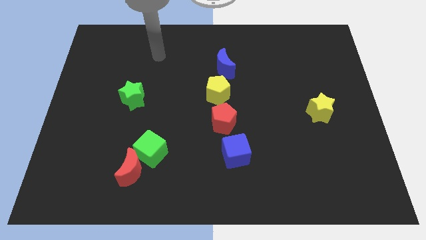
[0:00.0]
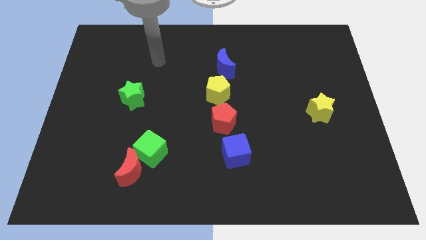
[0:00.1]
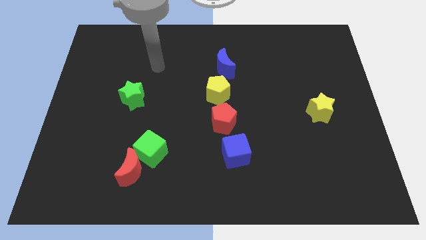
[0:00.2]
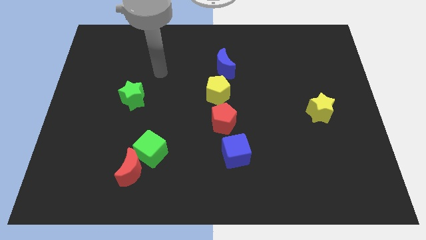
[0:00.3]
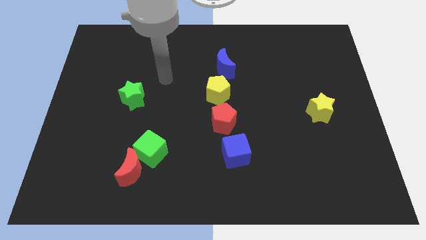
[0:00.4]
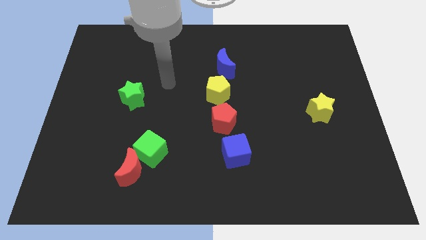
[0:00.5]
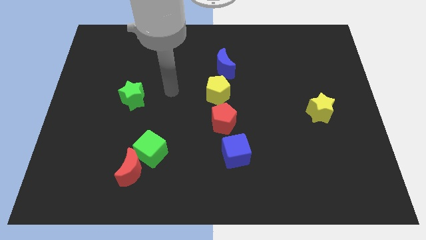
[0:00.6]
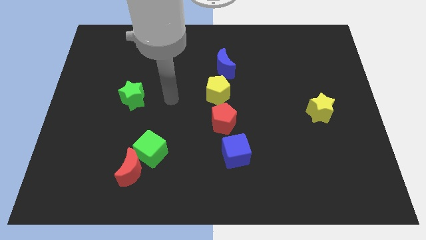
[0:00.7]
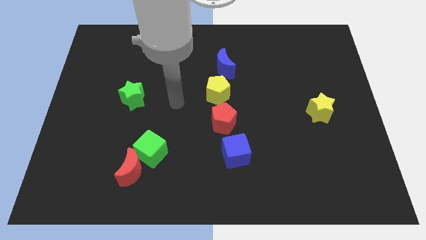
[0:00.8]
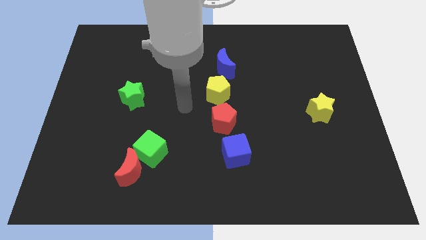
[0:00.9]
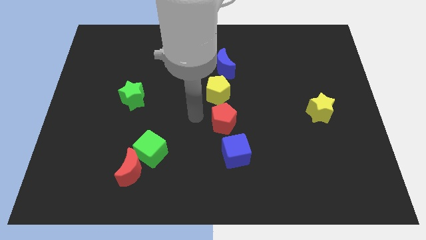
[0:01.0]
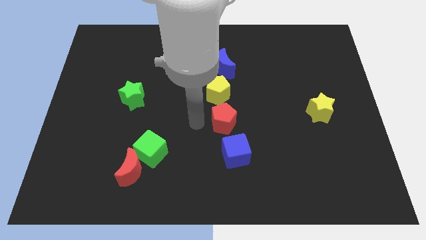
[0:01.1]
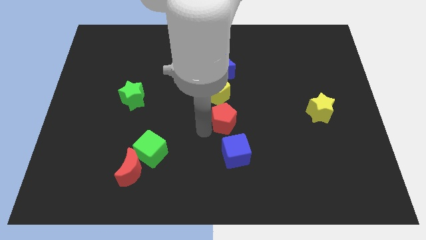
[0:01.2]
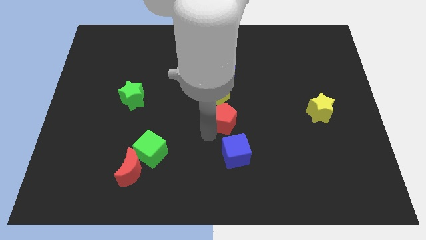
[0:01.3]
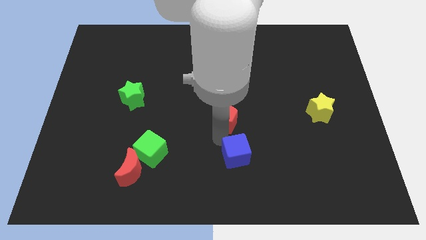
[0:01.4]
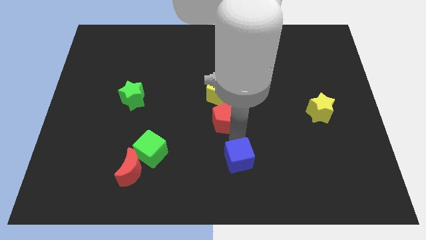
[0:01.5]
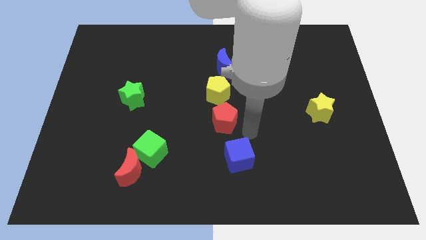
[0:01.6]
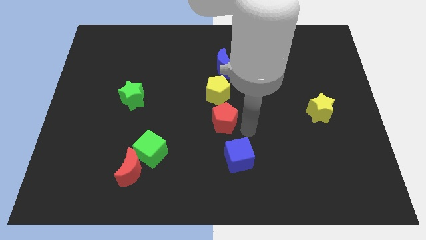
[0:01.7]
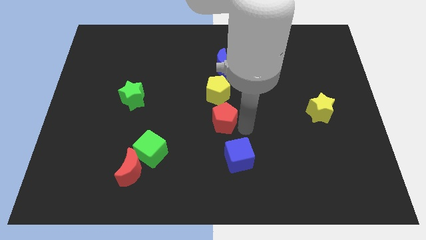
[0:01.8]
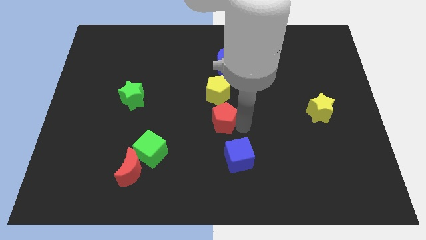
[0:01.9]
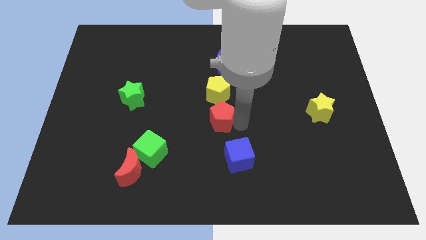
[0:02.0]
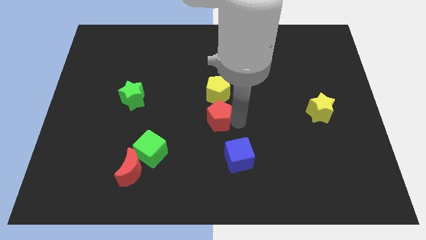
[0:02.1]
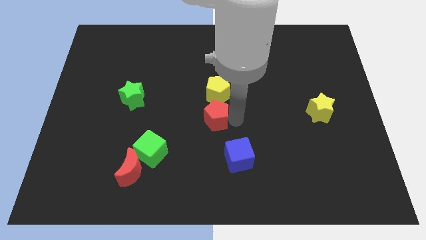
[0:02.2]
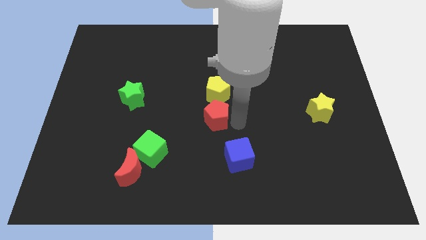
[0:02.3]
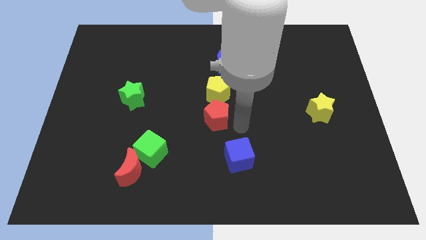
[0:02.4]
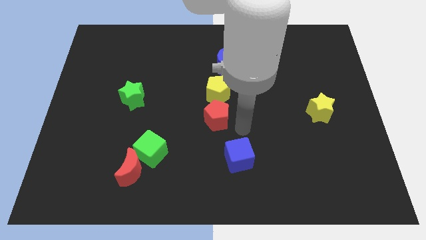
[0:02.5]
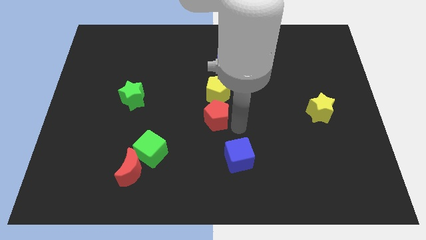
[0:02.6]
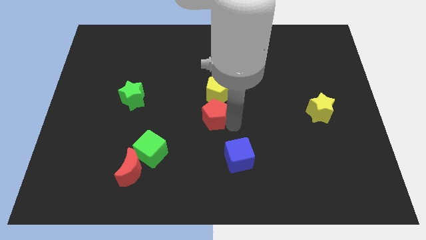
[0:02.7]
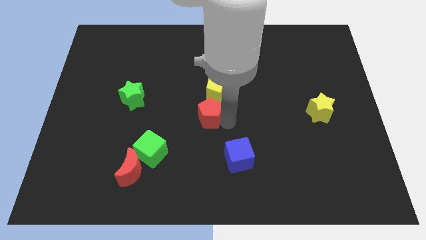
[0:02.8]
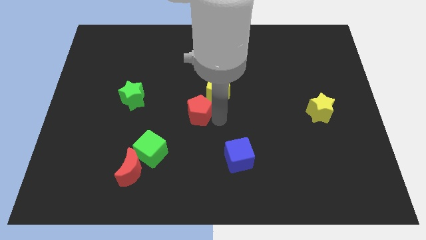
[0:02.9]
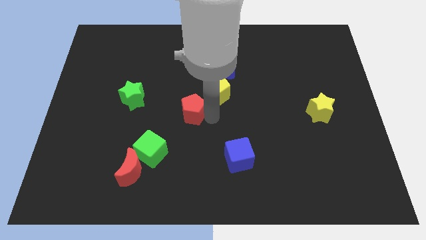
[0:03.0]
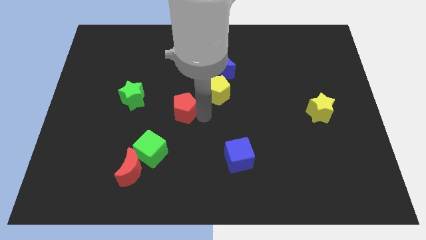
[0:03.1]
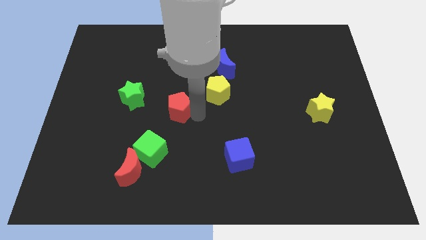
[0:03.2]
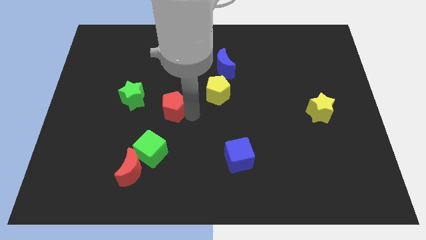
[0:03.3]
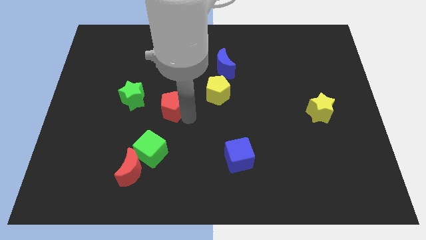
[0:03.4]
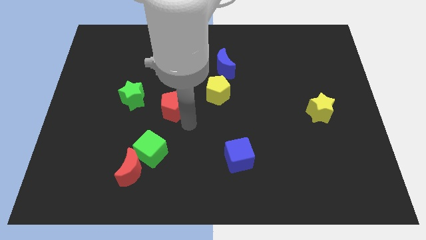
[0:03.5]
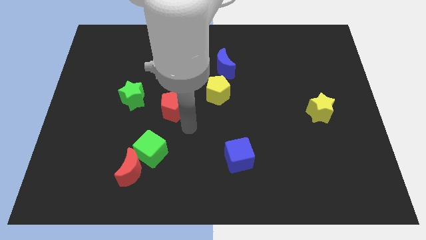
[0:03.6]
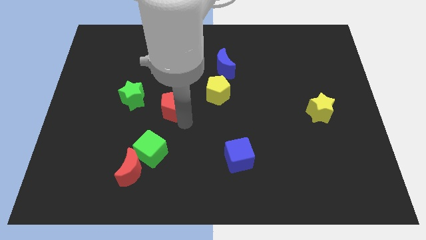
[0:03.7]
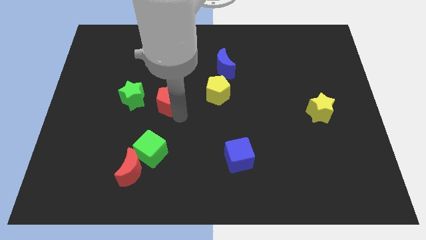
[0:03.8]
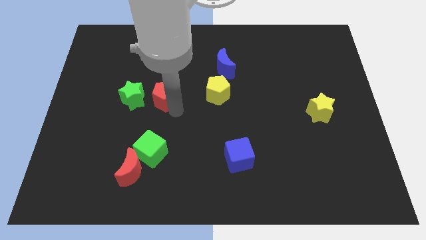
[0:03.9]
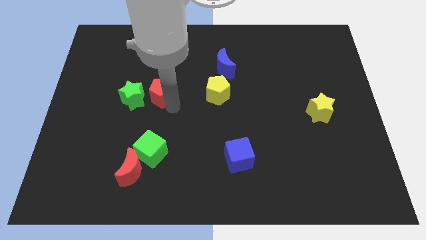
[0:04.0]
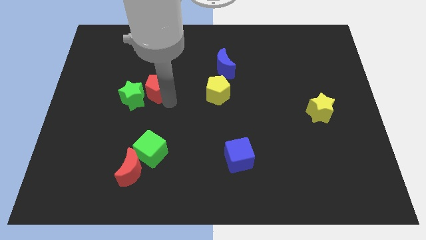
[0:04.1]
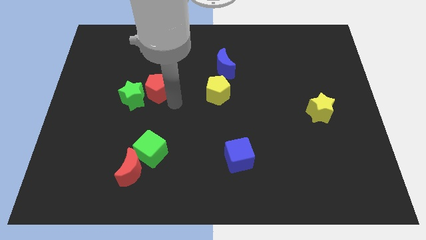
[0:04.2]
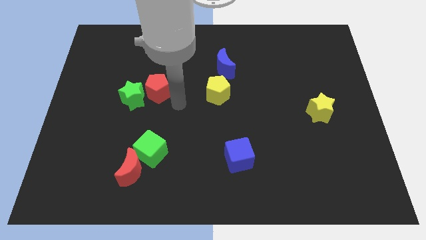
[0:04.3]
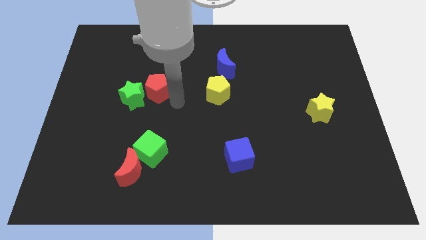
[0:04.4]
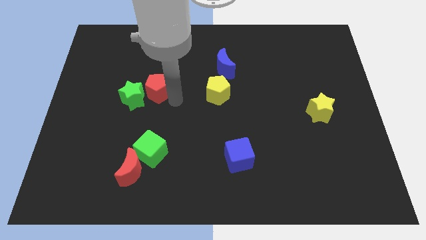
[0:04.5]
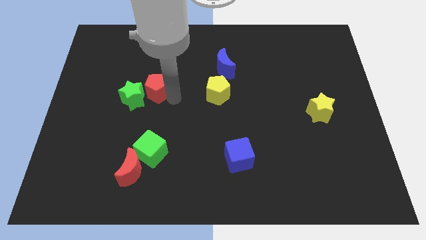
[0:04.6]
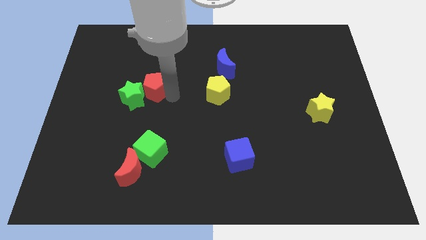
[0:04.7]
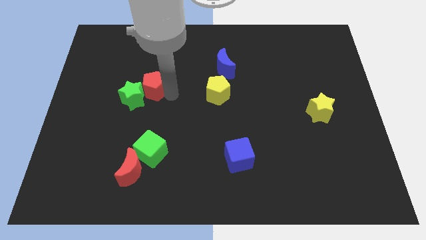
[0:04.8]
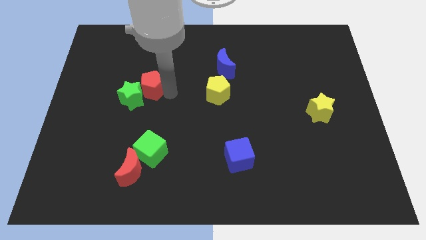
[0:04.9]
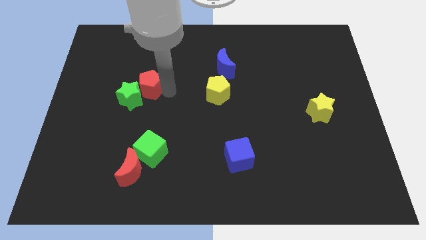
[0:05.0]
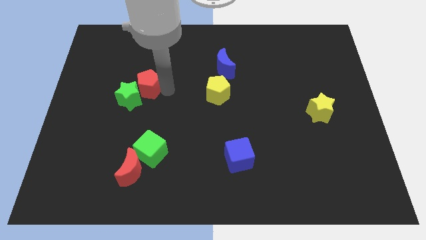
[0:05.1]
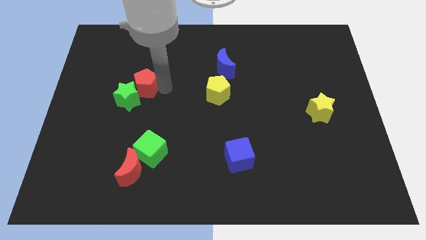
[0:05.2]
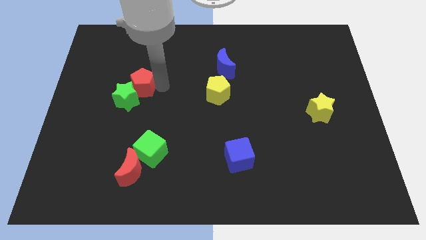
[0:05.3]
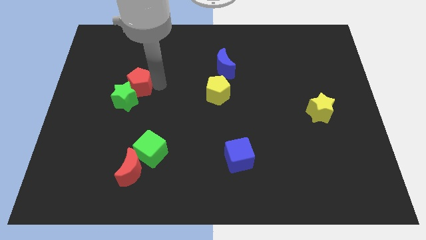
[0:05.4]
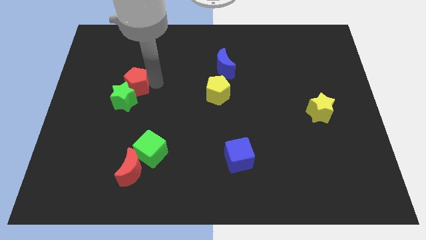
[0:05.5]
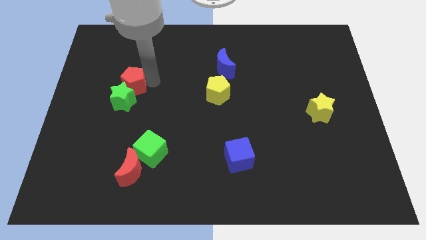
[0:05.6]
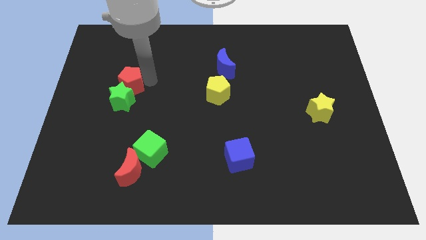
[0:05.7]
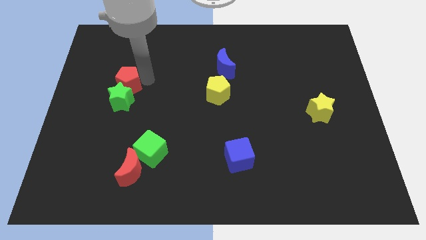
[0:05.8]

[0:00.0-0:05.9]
slide the red pentagon diagonally up and to the left of the green star

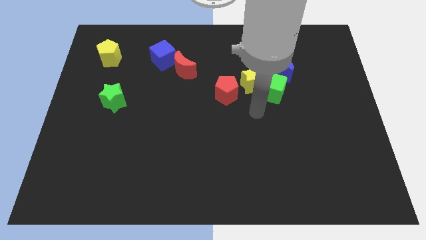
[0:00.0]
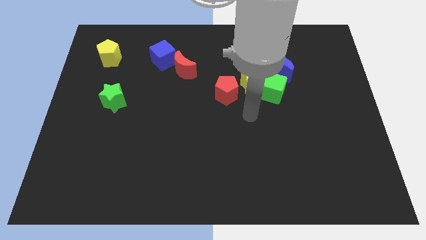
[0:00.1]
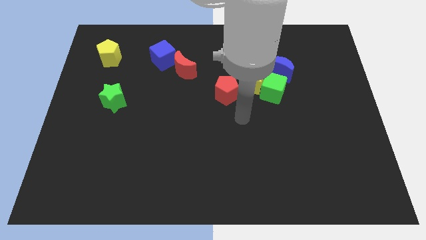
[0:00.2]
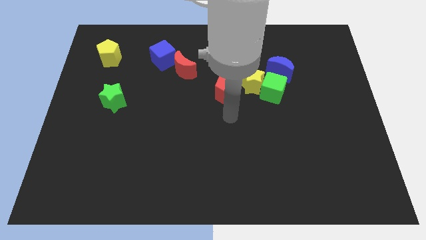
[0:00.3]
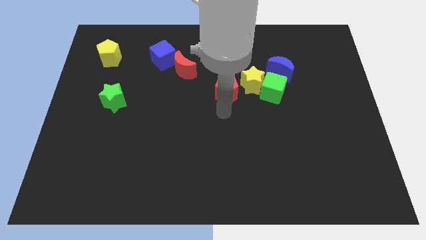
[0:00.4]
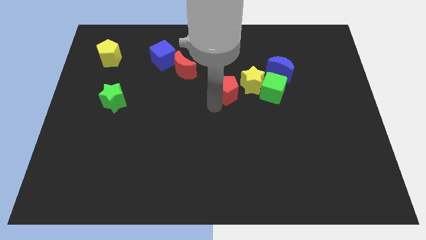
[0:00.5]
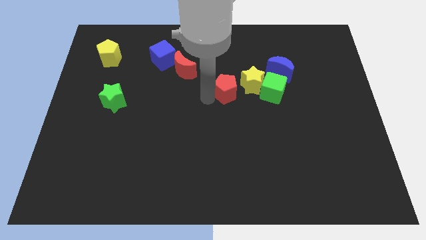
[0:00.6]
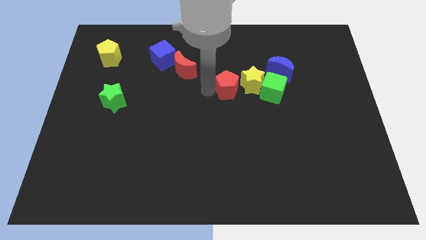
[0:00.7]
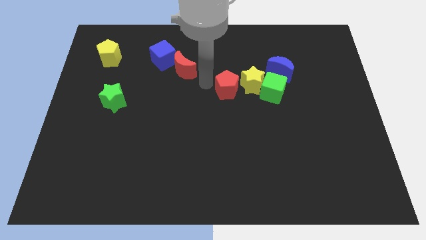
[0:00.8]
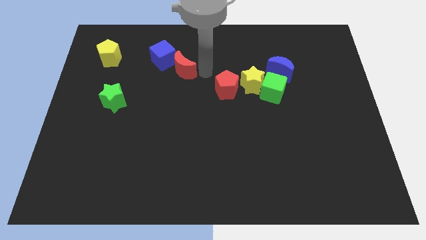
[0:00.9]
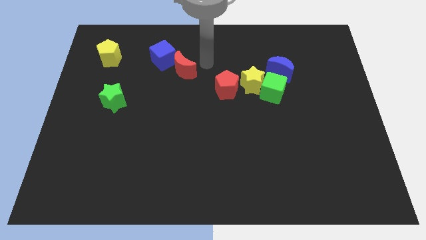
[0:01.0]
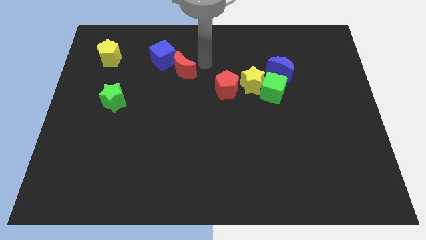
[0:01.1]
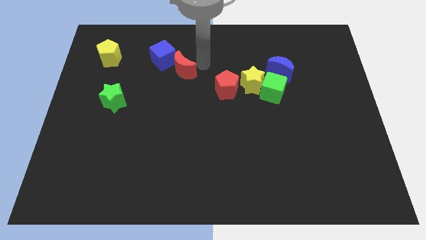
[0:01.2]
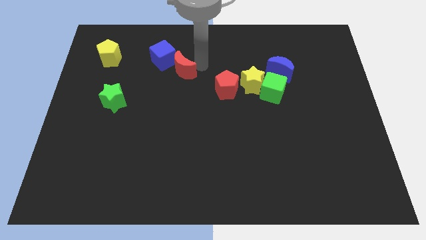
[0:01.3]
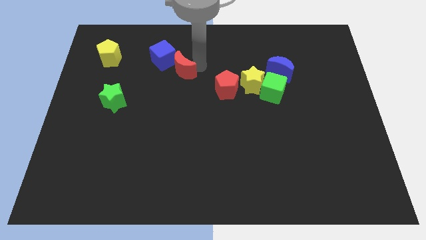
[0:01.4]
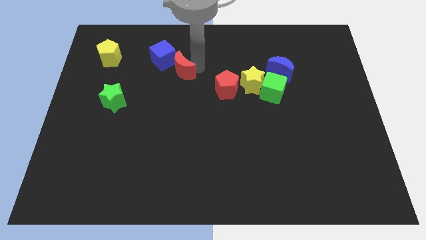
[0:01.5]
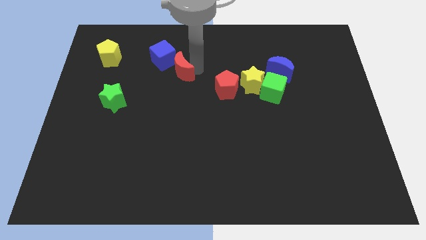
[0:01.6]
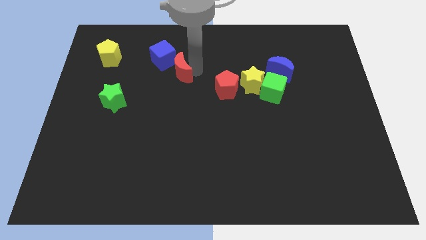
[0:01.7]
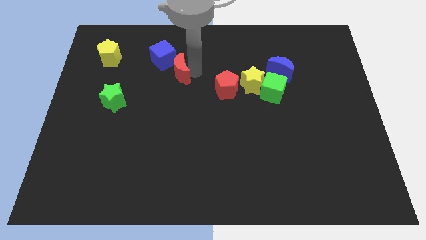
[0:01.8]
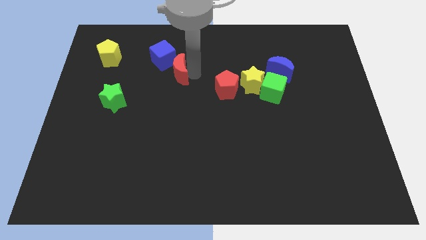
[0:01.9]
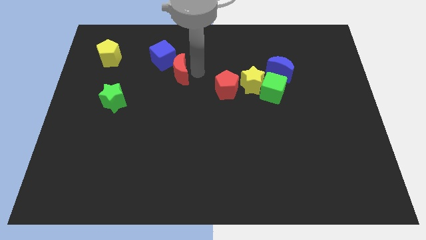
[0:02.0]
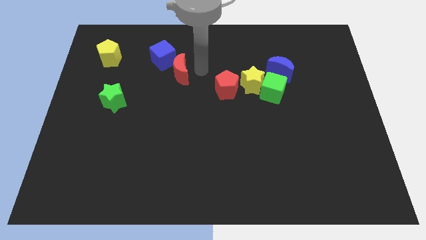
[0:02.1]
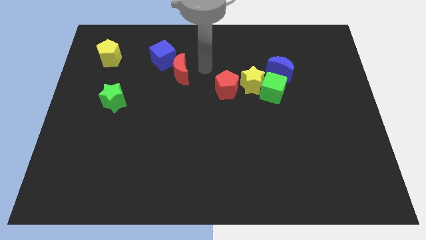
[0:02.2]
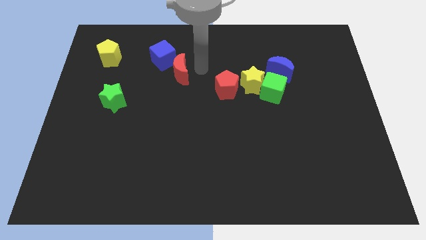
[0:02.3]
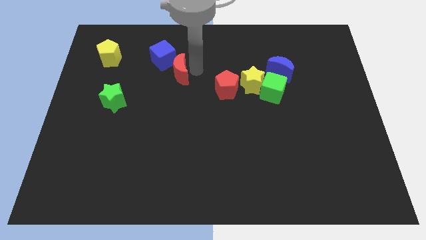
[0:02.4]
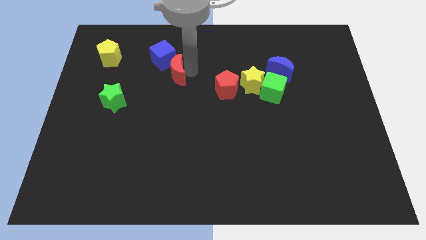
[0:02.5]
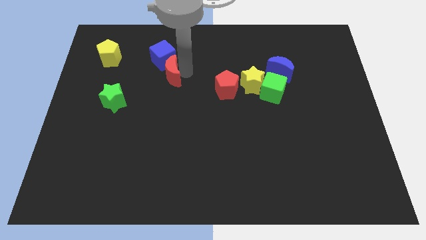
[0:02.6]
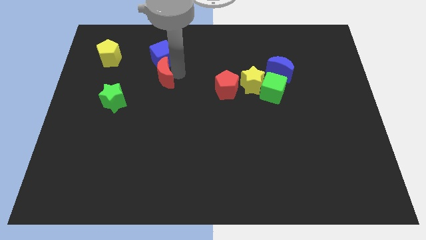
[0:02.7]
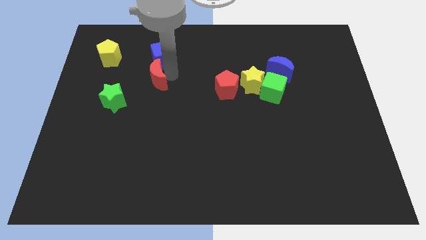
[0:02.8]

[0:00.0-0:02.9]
slide the red moon diagonally up and to the right of the green star
